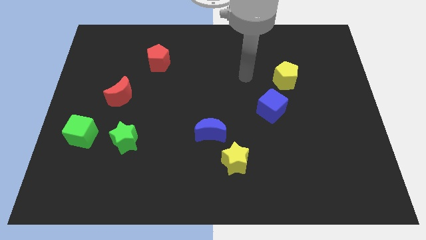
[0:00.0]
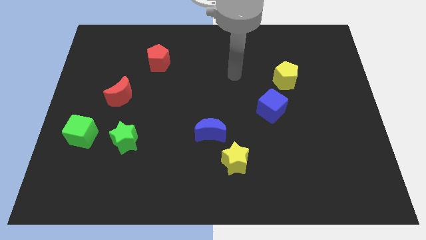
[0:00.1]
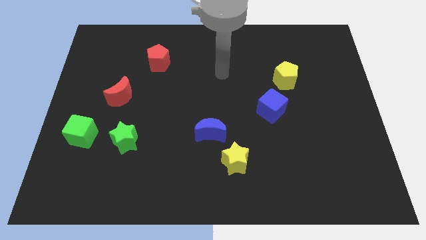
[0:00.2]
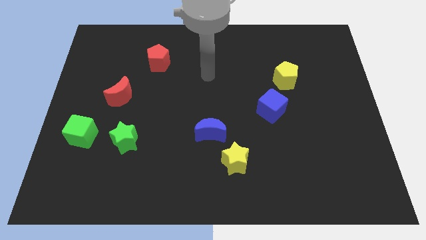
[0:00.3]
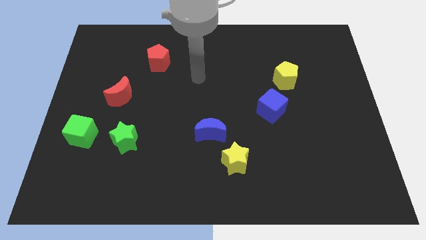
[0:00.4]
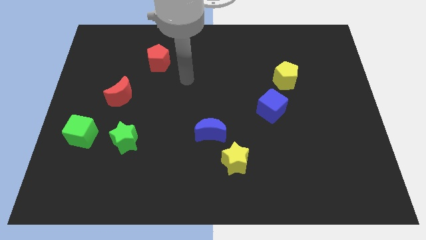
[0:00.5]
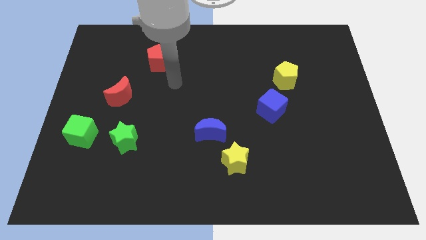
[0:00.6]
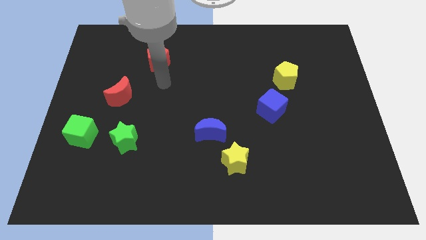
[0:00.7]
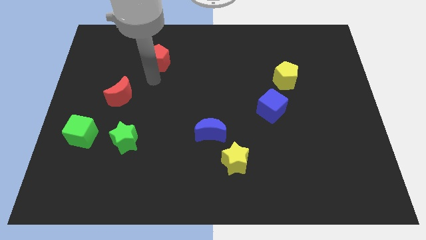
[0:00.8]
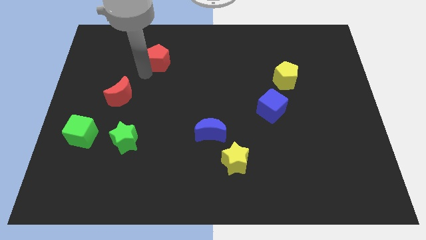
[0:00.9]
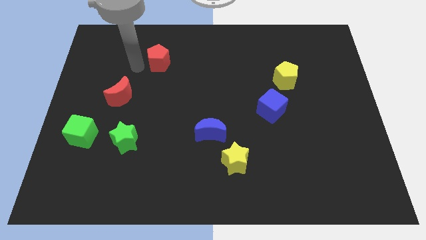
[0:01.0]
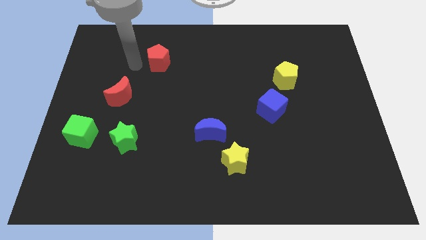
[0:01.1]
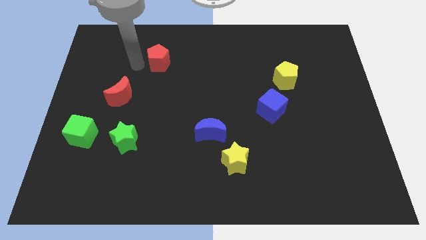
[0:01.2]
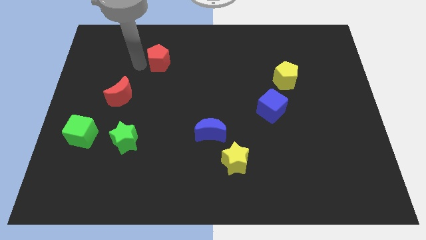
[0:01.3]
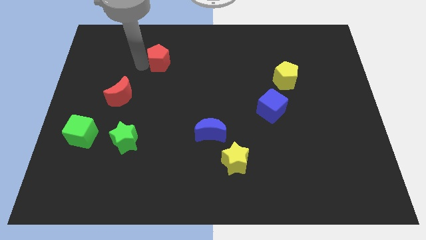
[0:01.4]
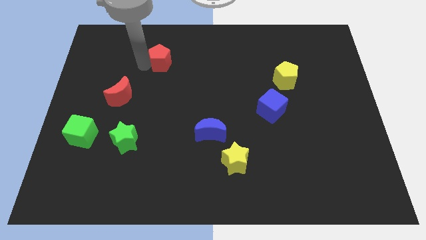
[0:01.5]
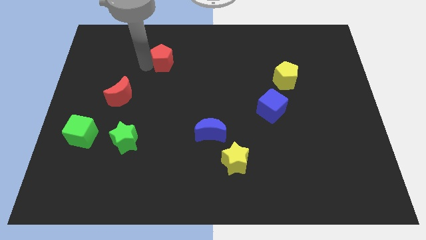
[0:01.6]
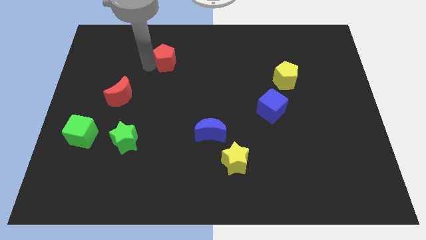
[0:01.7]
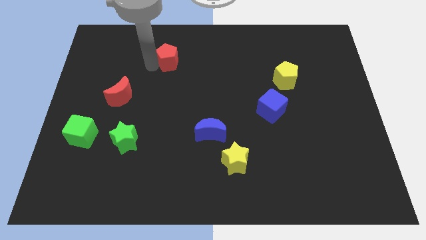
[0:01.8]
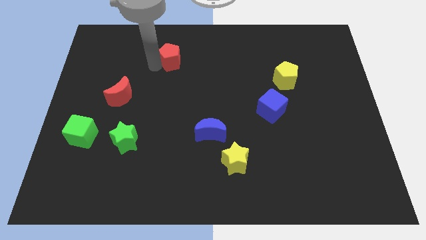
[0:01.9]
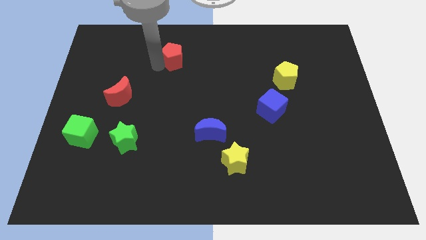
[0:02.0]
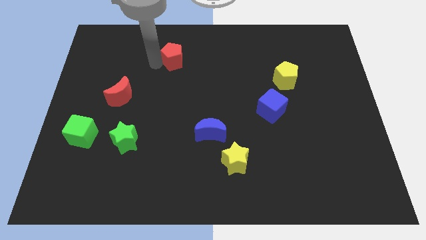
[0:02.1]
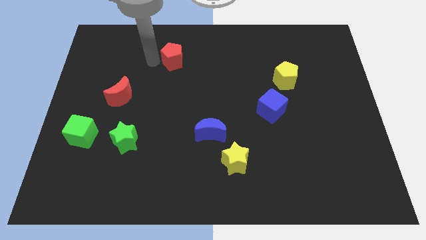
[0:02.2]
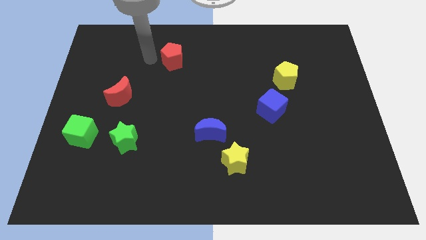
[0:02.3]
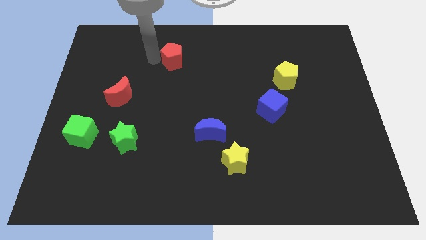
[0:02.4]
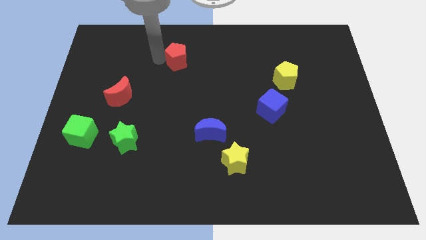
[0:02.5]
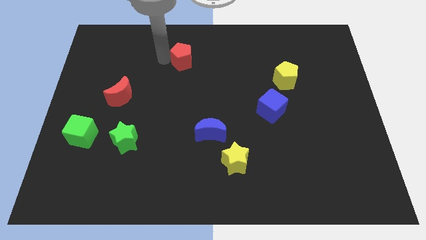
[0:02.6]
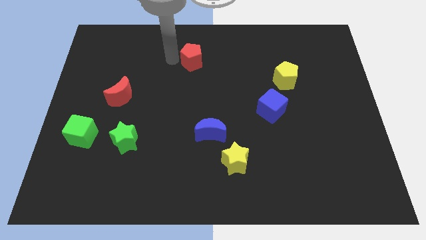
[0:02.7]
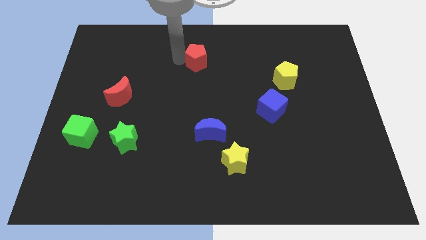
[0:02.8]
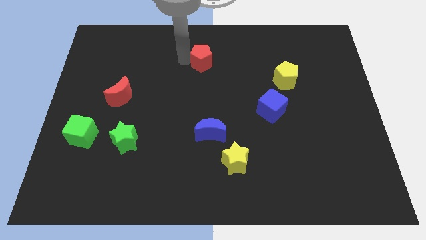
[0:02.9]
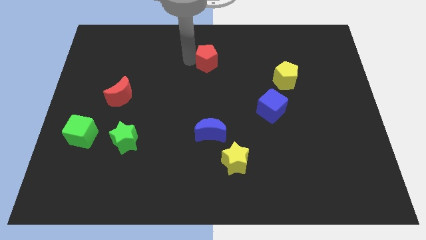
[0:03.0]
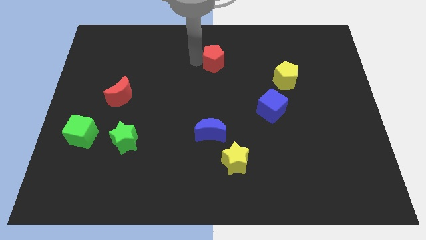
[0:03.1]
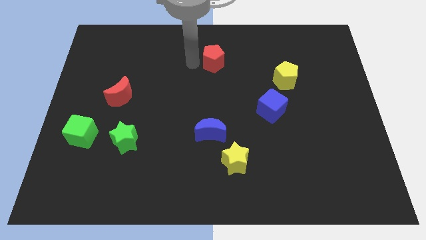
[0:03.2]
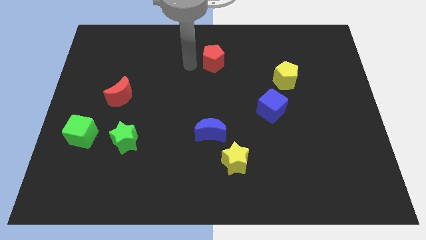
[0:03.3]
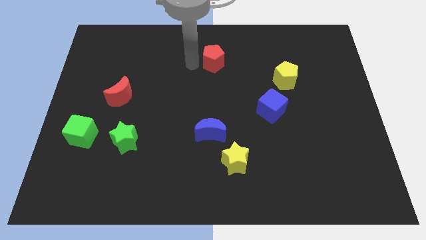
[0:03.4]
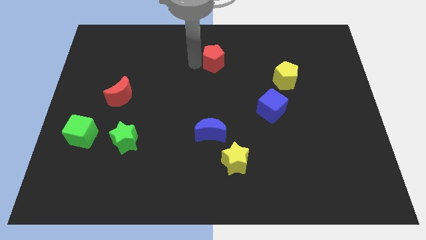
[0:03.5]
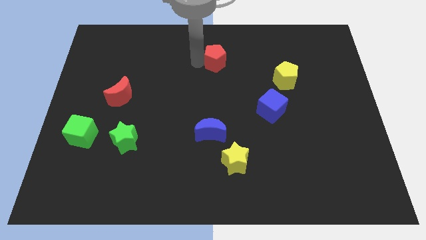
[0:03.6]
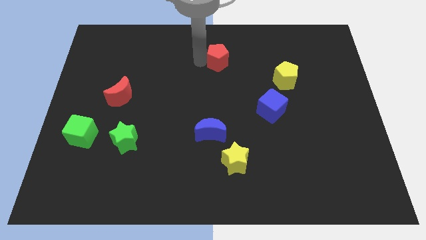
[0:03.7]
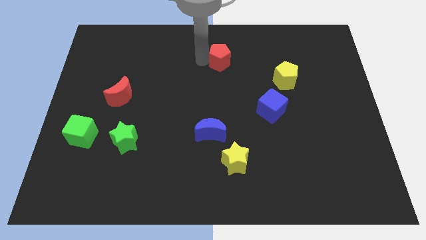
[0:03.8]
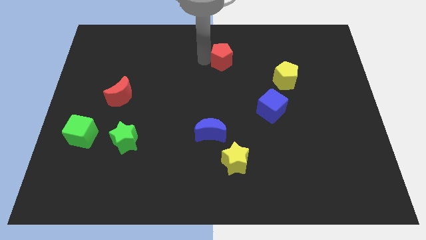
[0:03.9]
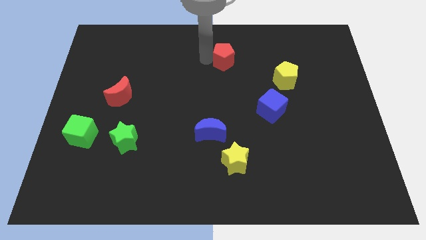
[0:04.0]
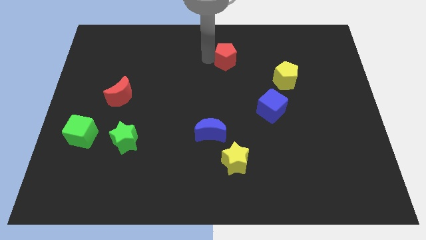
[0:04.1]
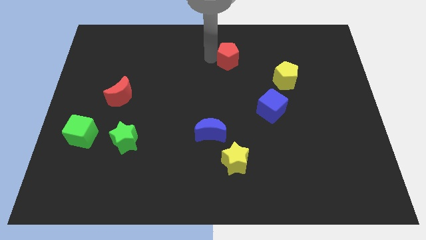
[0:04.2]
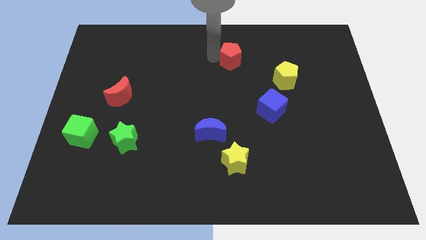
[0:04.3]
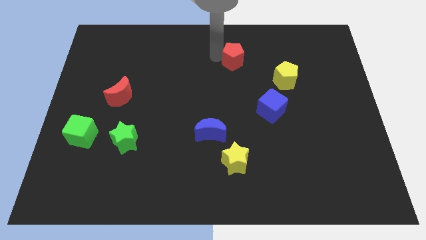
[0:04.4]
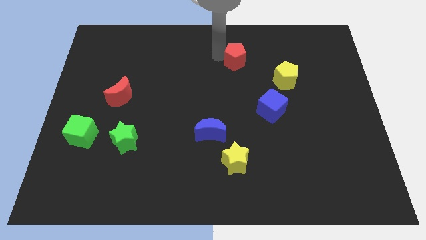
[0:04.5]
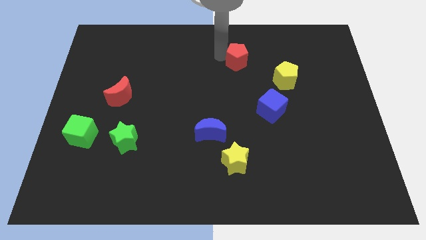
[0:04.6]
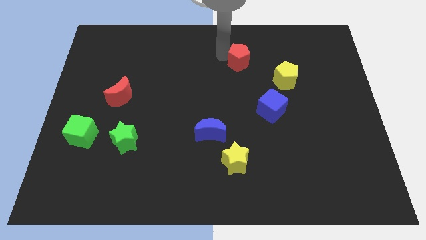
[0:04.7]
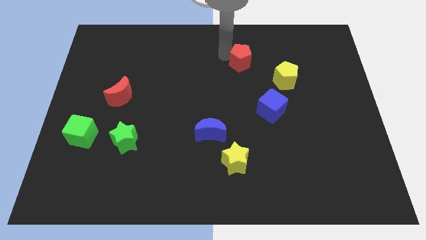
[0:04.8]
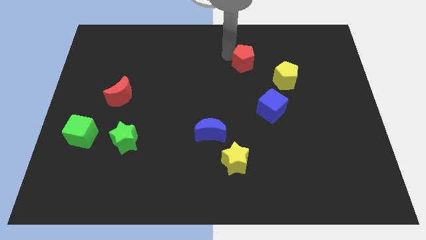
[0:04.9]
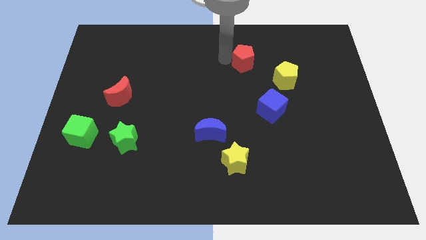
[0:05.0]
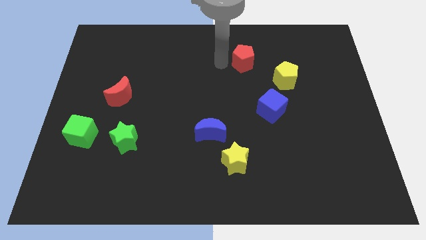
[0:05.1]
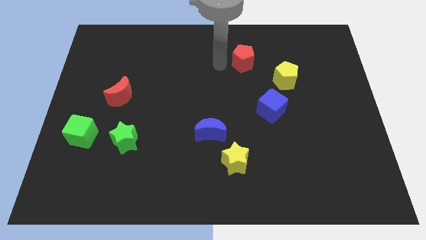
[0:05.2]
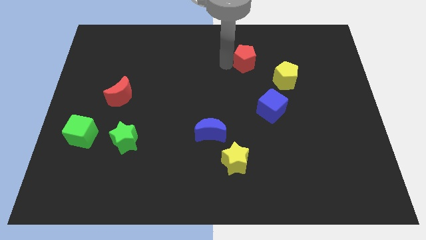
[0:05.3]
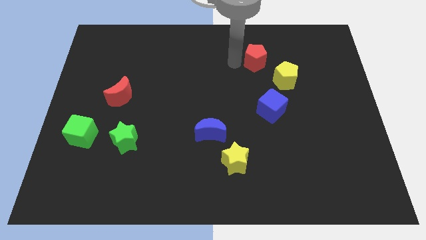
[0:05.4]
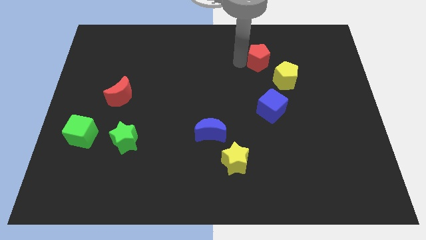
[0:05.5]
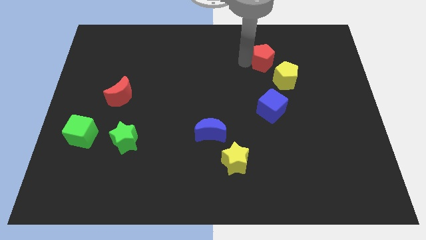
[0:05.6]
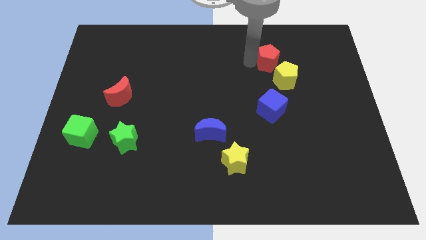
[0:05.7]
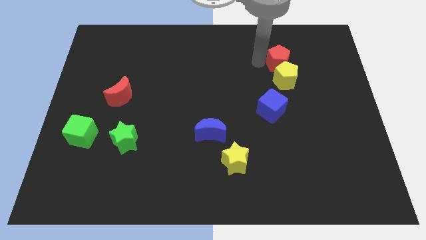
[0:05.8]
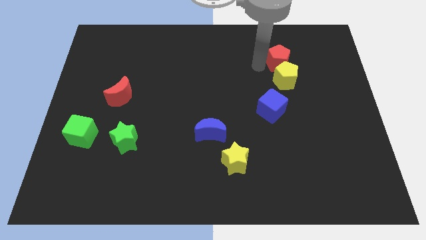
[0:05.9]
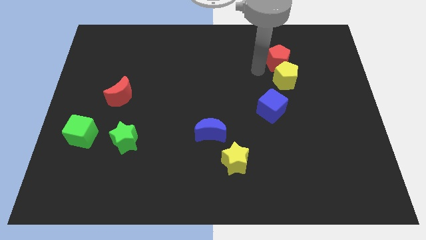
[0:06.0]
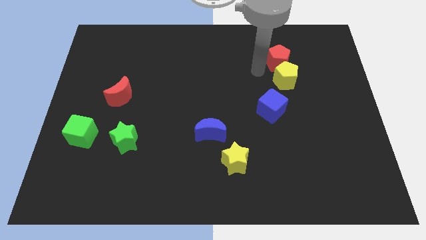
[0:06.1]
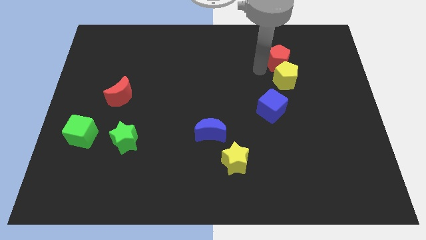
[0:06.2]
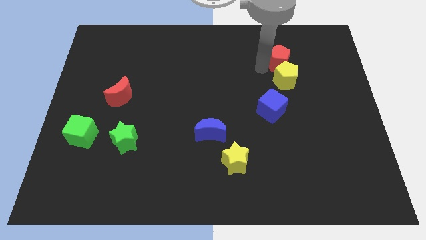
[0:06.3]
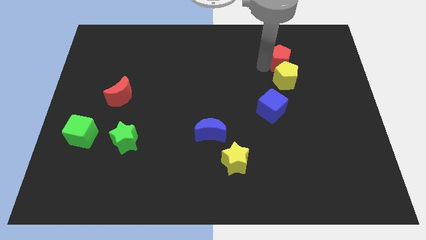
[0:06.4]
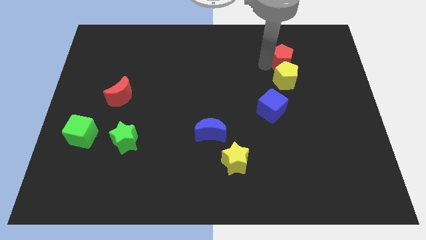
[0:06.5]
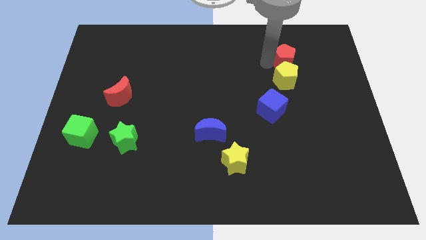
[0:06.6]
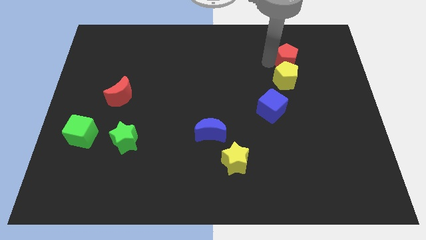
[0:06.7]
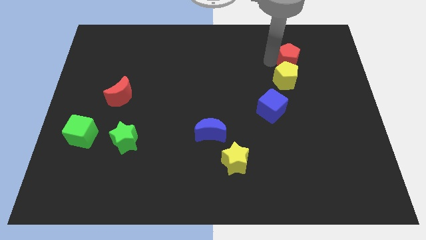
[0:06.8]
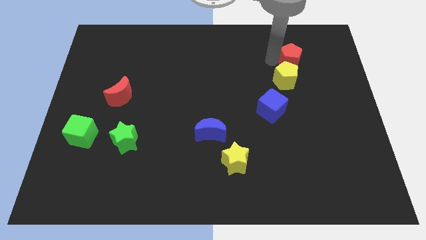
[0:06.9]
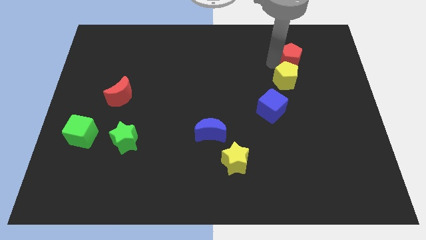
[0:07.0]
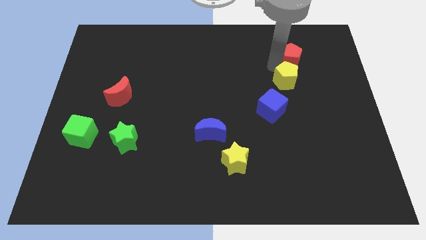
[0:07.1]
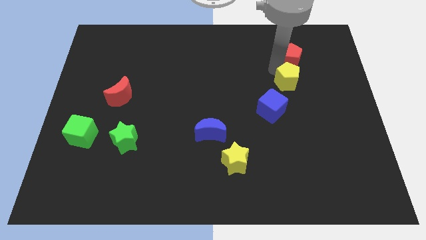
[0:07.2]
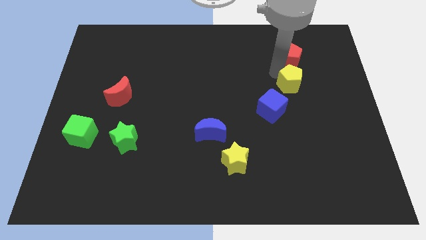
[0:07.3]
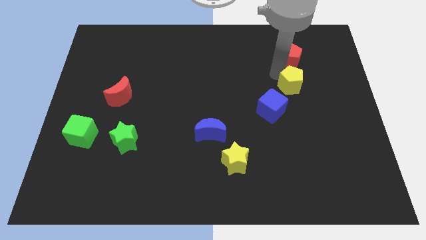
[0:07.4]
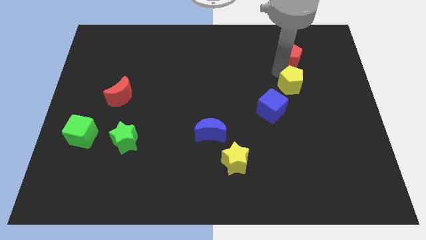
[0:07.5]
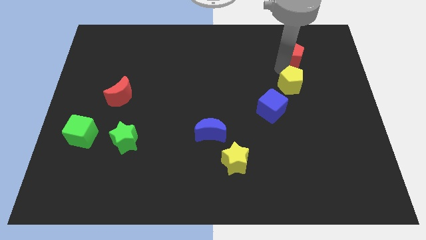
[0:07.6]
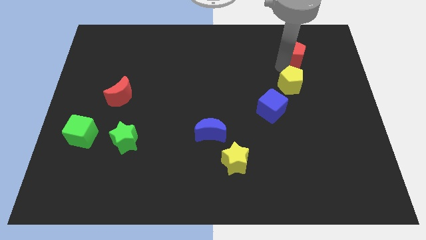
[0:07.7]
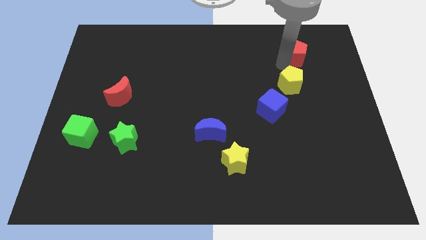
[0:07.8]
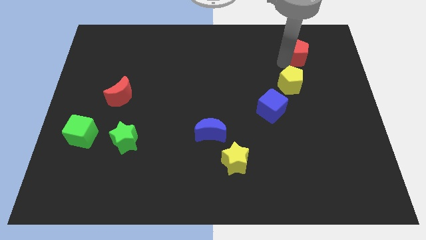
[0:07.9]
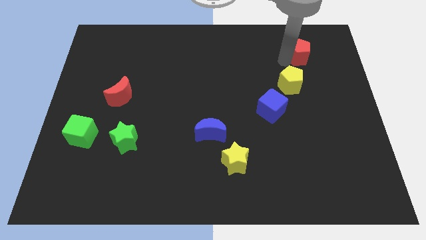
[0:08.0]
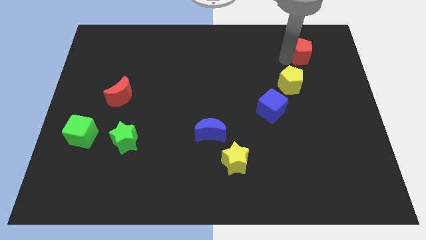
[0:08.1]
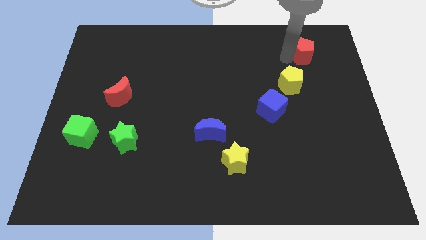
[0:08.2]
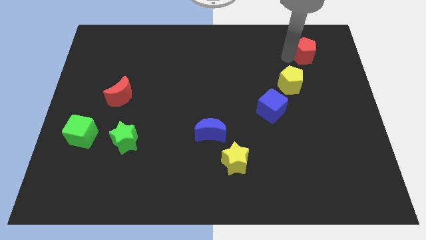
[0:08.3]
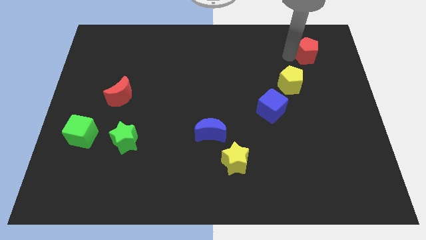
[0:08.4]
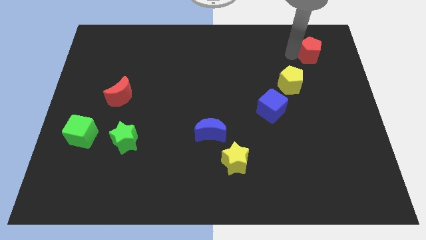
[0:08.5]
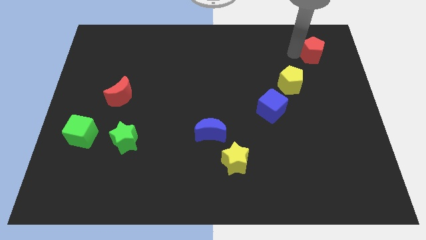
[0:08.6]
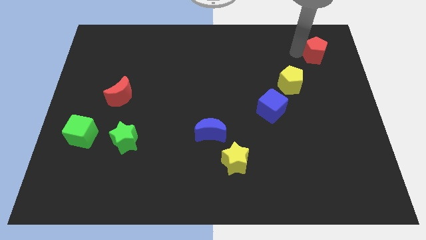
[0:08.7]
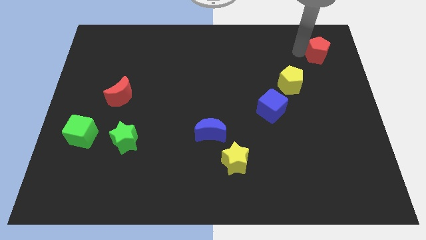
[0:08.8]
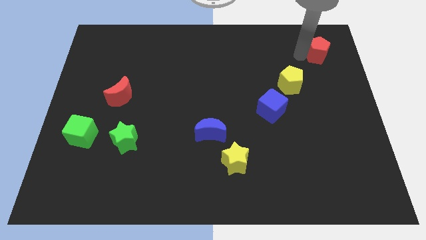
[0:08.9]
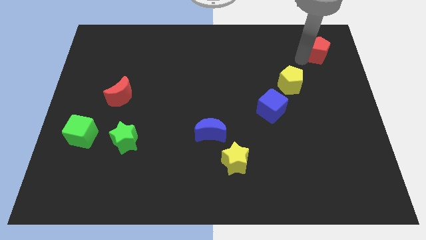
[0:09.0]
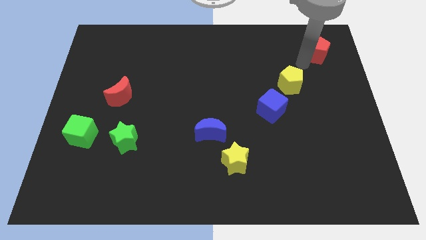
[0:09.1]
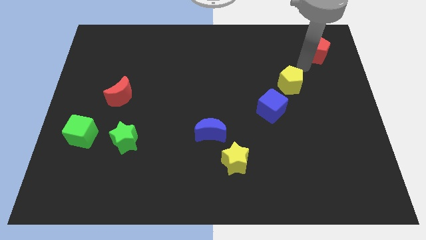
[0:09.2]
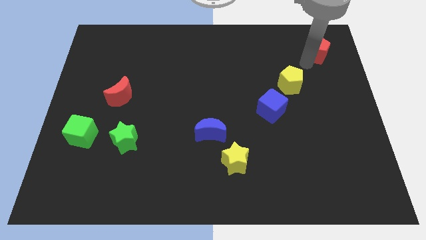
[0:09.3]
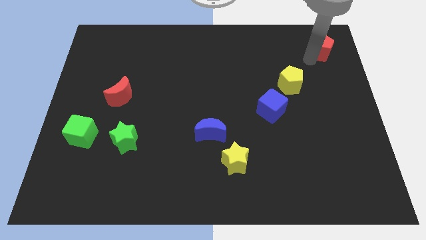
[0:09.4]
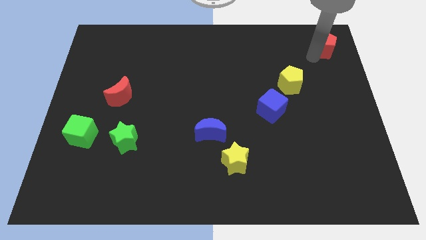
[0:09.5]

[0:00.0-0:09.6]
move the red pentagon to the top right of the board
